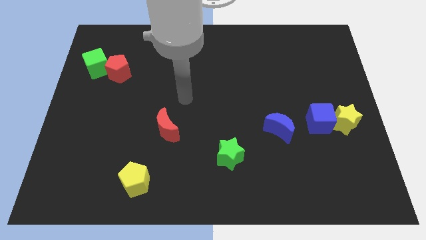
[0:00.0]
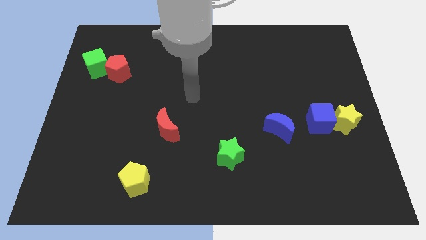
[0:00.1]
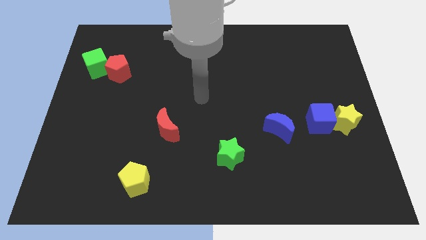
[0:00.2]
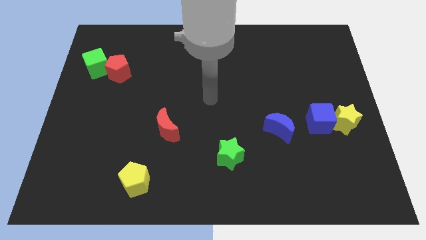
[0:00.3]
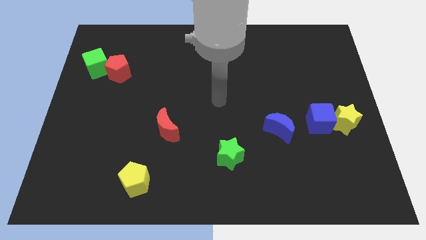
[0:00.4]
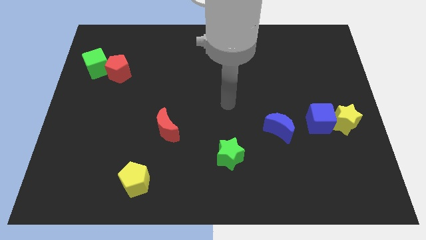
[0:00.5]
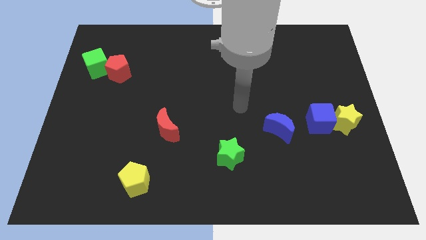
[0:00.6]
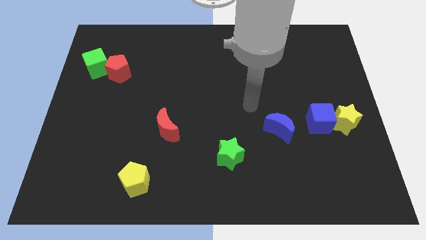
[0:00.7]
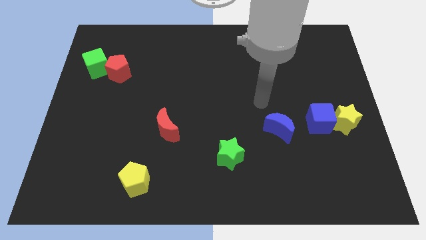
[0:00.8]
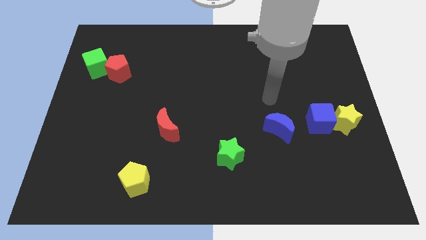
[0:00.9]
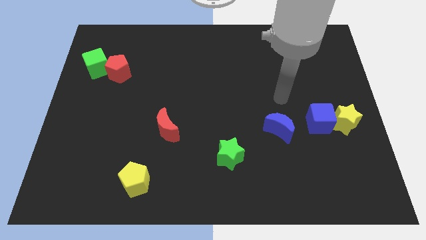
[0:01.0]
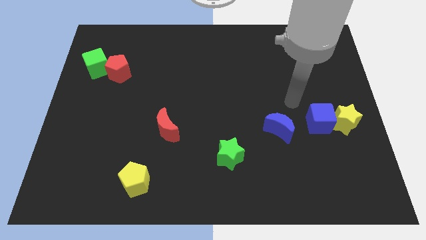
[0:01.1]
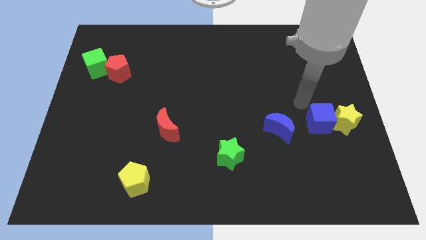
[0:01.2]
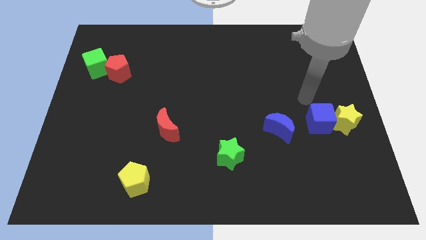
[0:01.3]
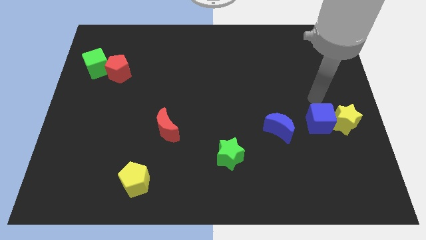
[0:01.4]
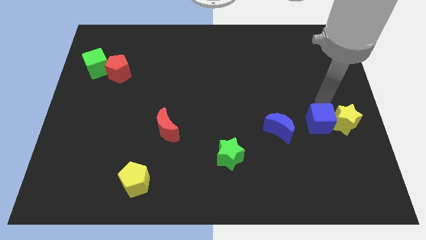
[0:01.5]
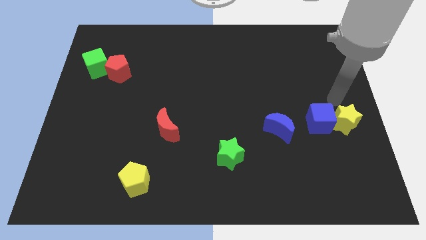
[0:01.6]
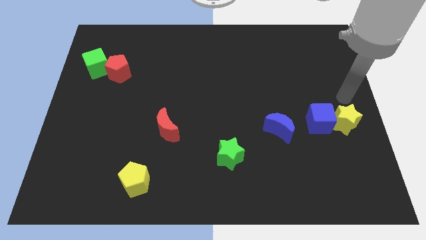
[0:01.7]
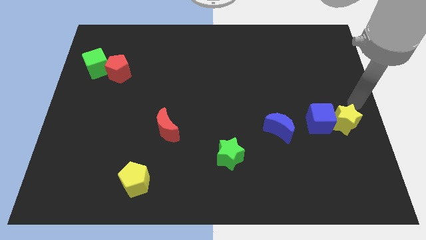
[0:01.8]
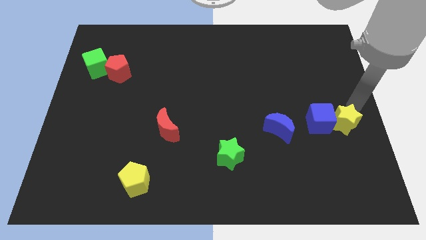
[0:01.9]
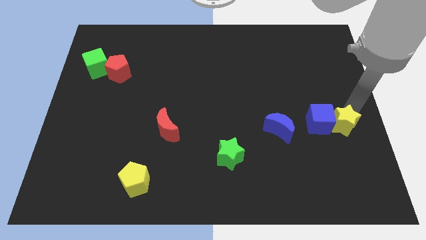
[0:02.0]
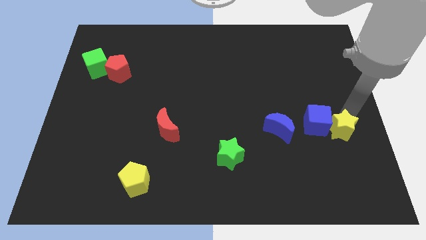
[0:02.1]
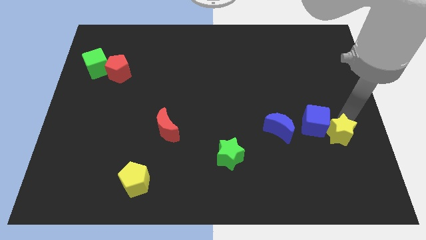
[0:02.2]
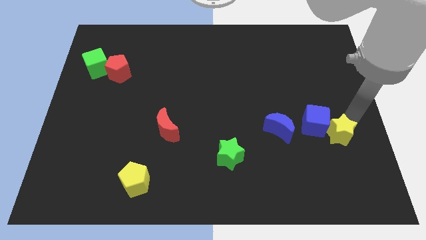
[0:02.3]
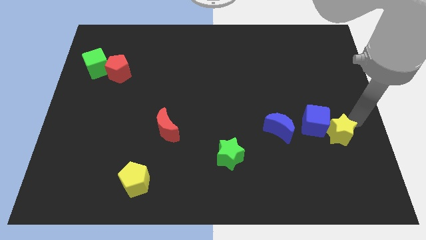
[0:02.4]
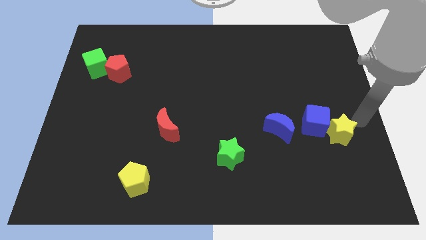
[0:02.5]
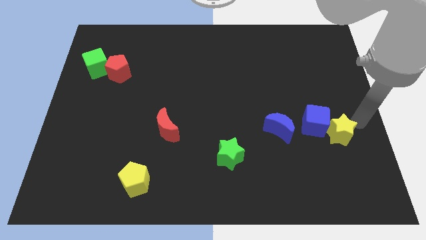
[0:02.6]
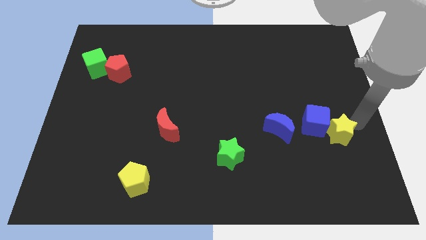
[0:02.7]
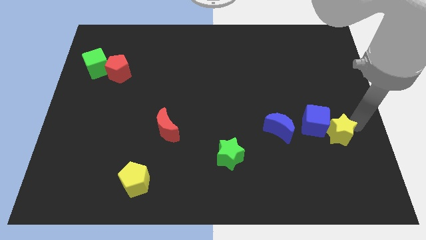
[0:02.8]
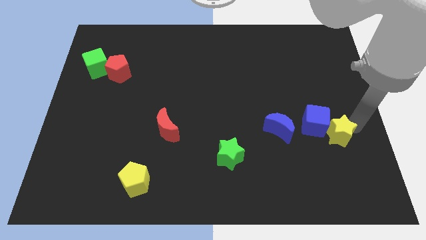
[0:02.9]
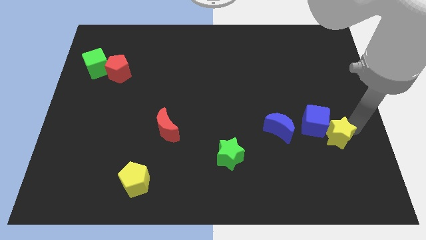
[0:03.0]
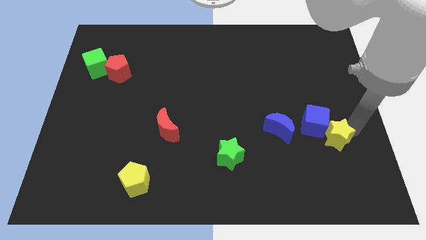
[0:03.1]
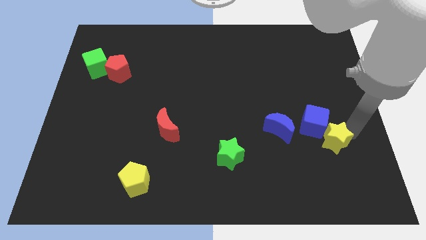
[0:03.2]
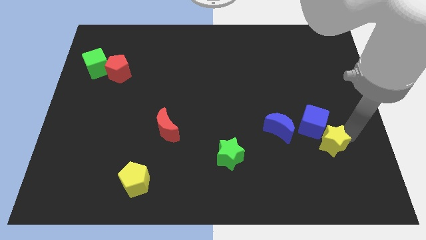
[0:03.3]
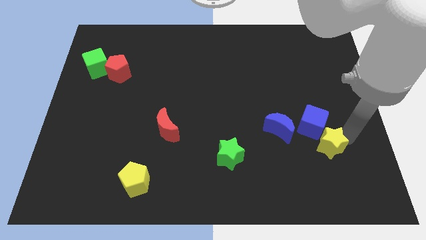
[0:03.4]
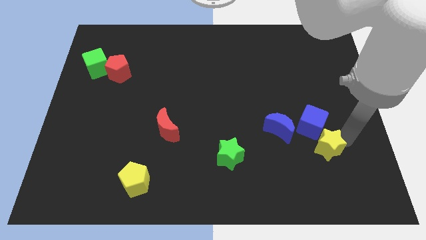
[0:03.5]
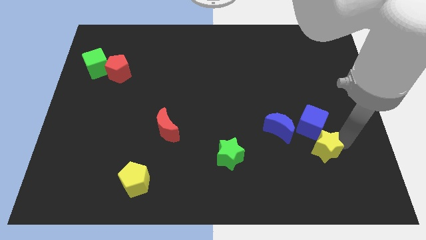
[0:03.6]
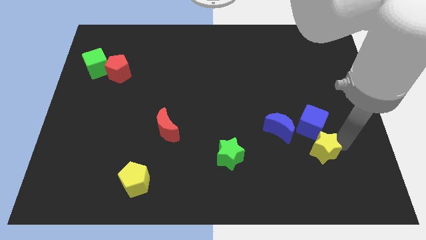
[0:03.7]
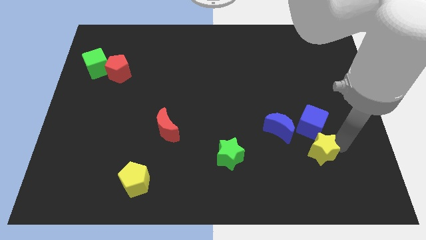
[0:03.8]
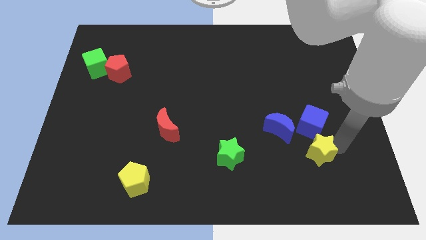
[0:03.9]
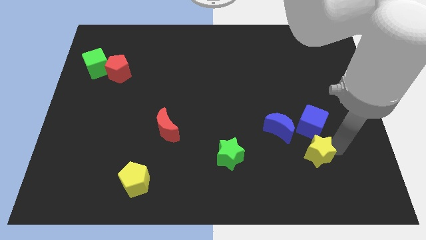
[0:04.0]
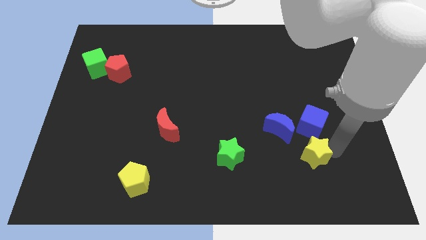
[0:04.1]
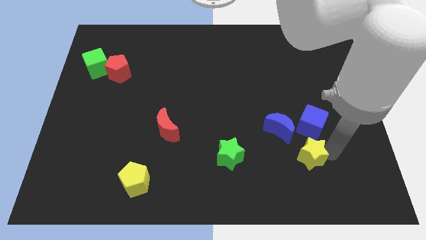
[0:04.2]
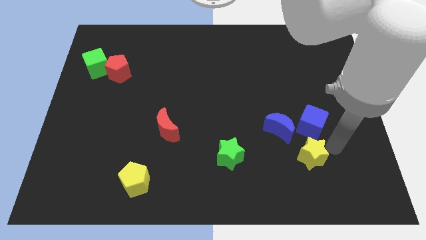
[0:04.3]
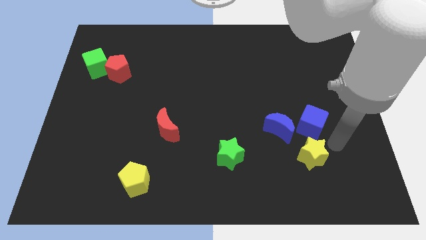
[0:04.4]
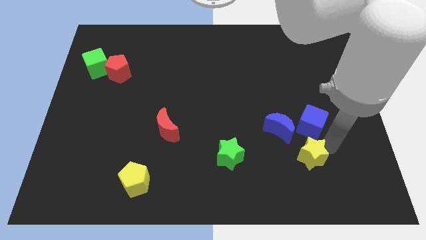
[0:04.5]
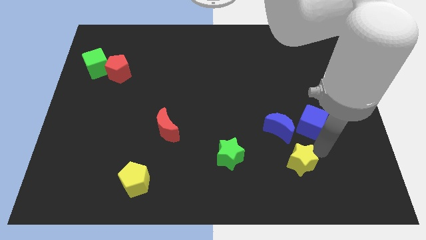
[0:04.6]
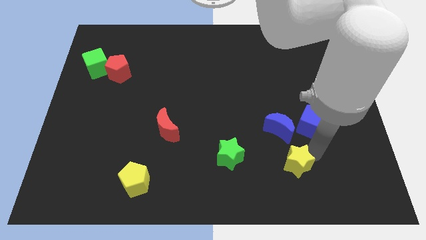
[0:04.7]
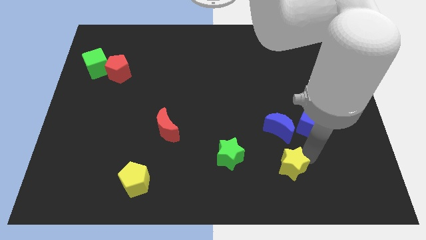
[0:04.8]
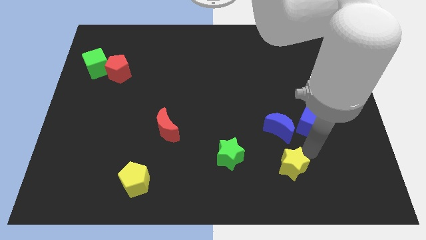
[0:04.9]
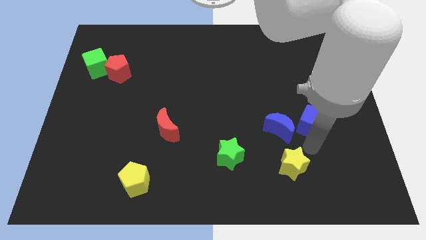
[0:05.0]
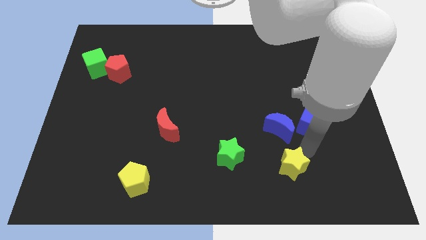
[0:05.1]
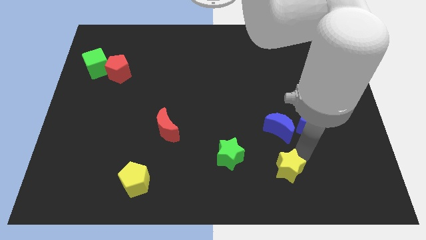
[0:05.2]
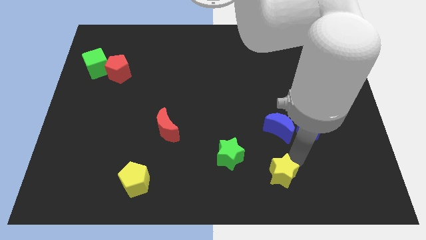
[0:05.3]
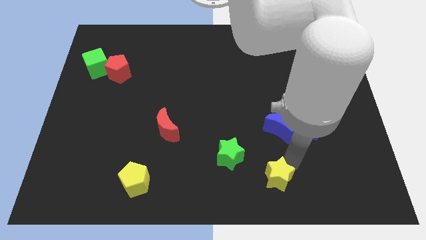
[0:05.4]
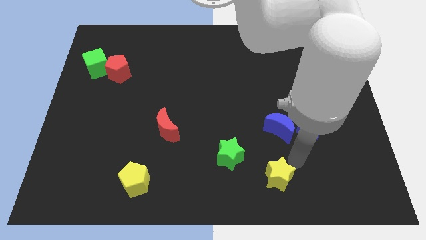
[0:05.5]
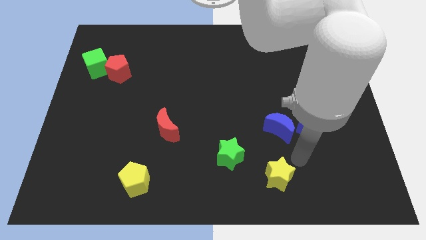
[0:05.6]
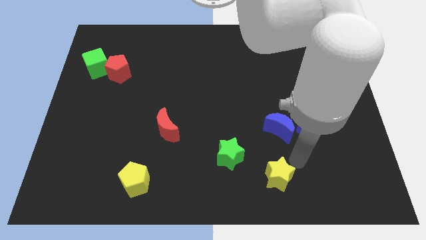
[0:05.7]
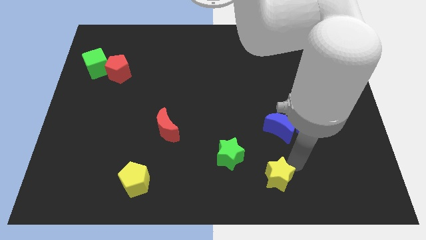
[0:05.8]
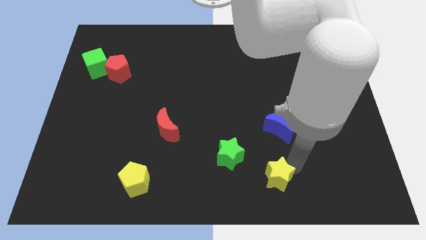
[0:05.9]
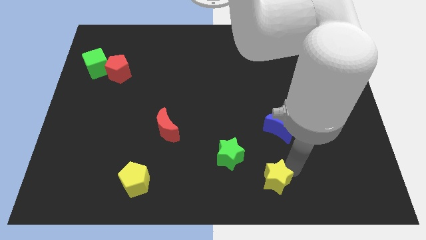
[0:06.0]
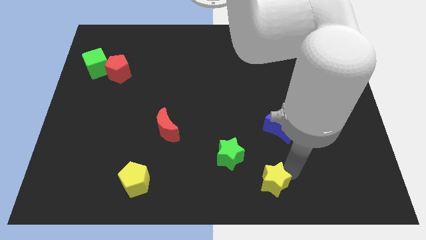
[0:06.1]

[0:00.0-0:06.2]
put the yellow star to the bottom
